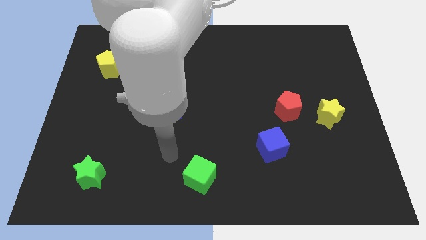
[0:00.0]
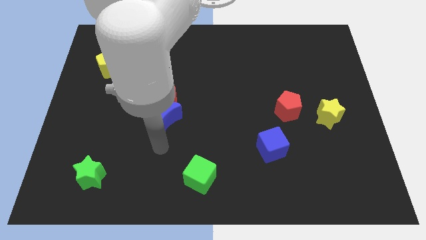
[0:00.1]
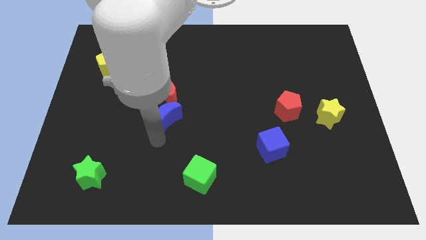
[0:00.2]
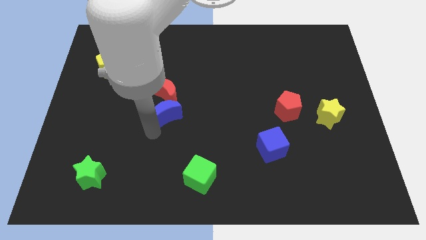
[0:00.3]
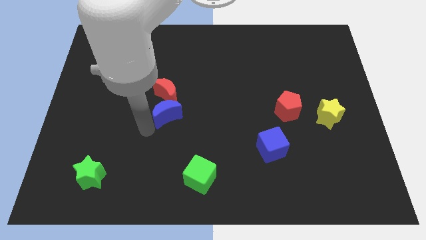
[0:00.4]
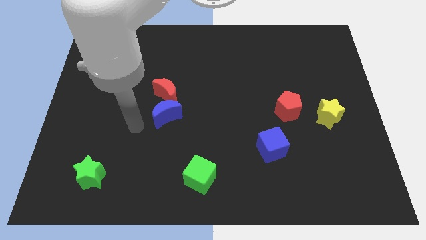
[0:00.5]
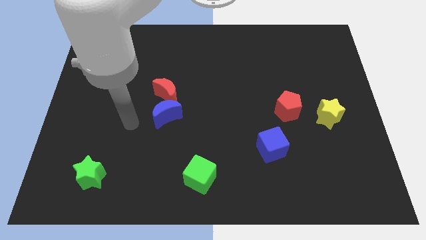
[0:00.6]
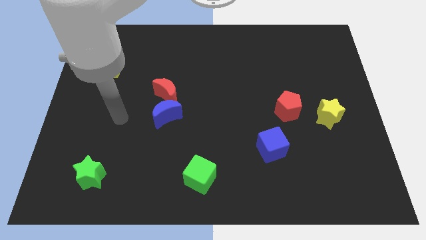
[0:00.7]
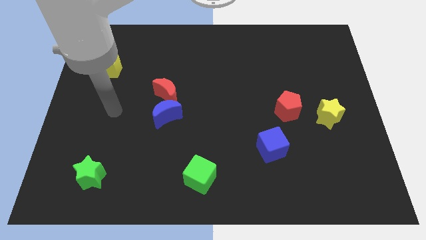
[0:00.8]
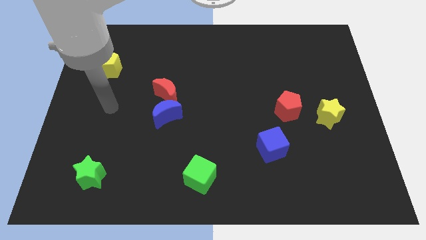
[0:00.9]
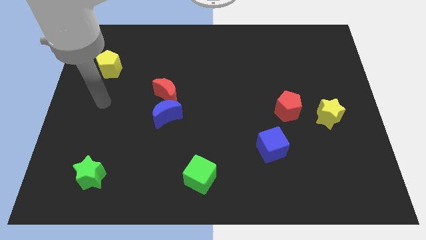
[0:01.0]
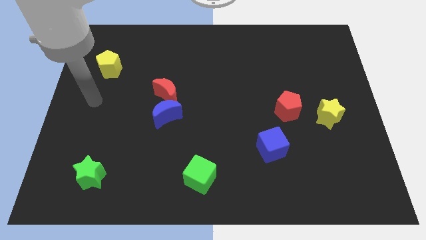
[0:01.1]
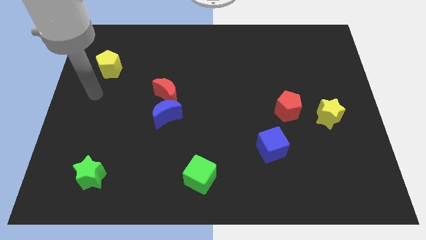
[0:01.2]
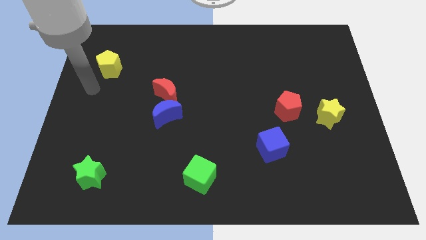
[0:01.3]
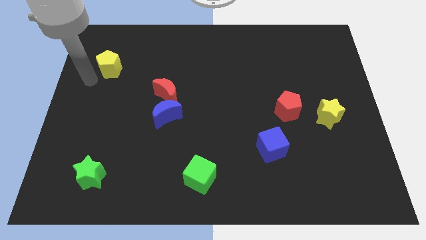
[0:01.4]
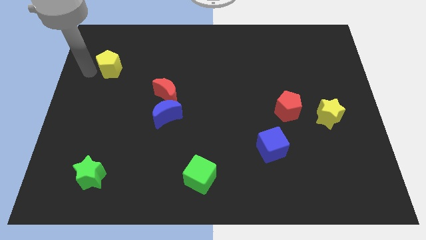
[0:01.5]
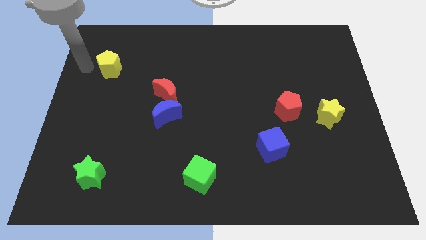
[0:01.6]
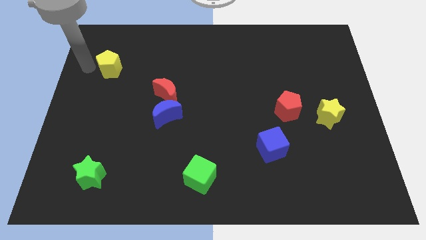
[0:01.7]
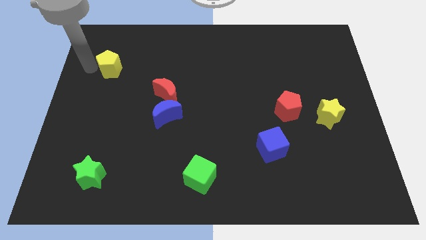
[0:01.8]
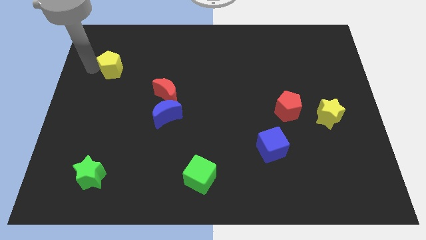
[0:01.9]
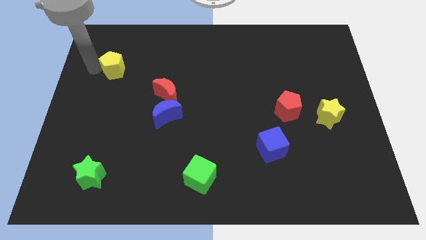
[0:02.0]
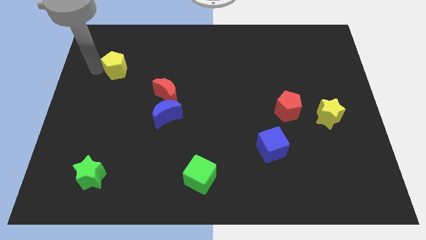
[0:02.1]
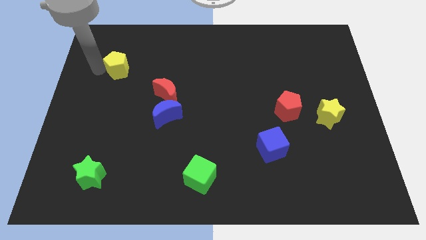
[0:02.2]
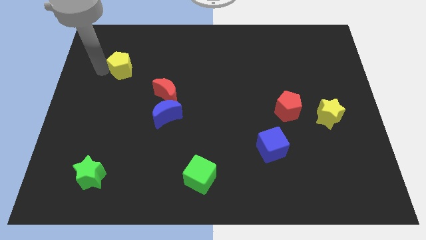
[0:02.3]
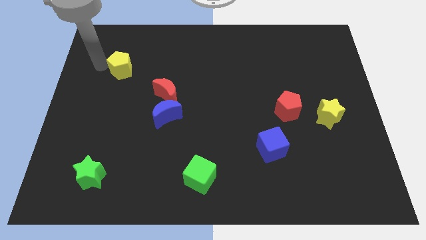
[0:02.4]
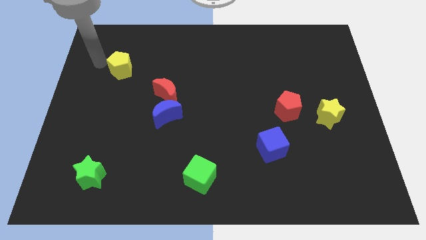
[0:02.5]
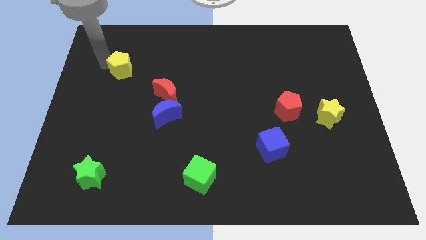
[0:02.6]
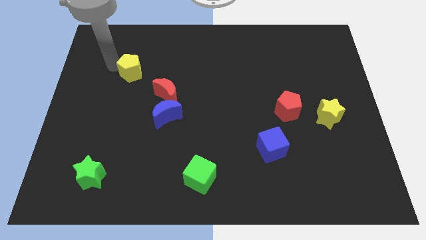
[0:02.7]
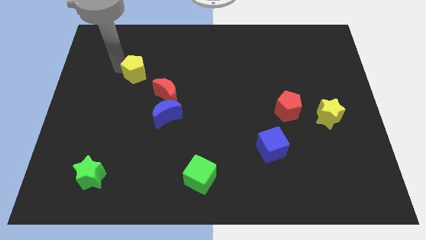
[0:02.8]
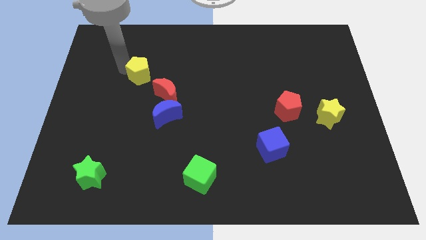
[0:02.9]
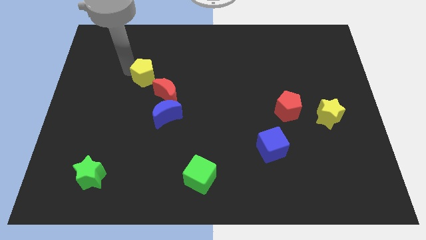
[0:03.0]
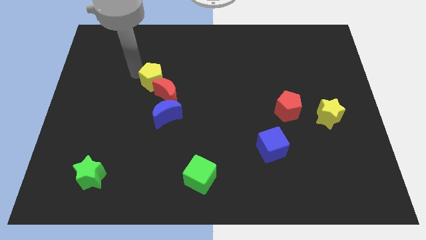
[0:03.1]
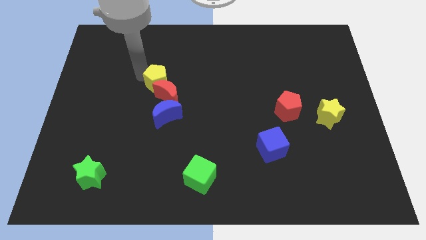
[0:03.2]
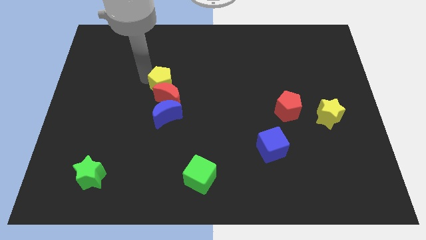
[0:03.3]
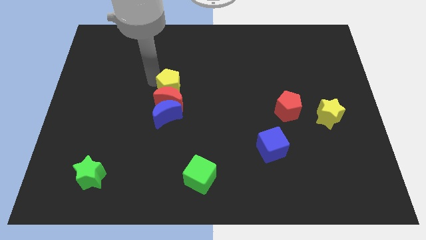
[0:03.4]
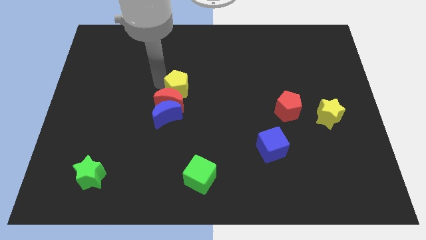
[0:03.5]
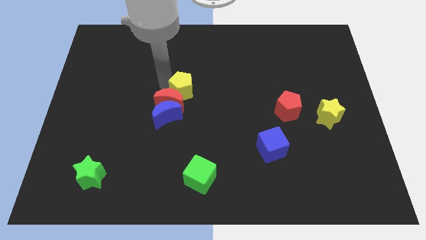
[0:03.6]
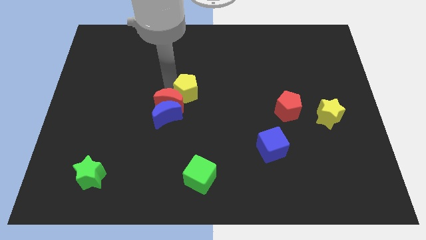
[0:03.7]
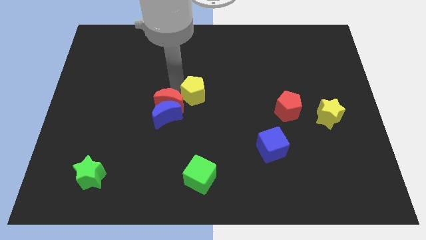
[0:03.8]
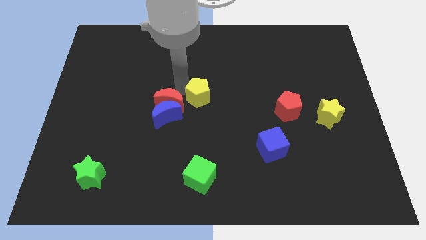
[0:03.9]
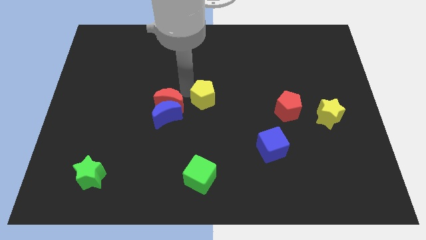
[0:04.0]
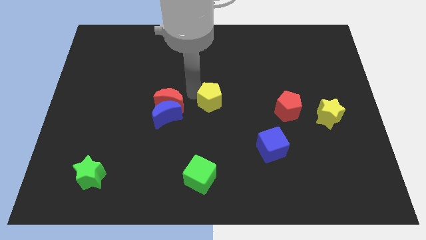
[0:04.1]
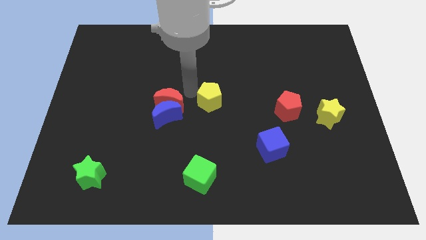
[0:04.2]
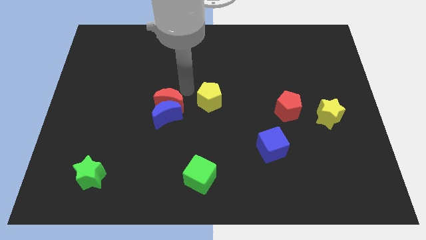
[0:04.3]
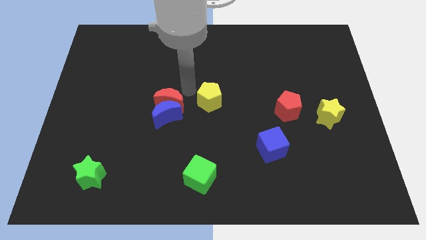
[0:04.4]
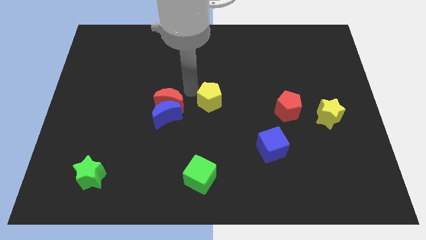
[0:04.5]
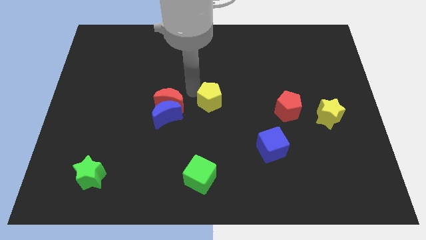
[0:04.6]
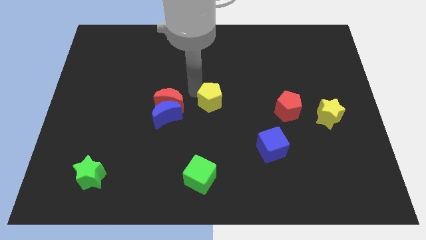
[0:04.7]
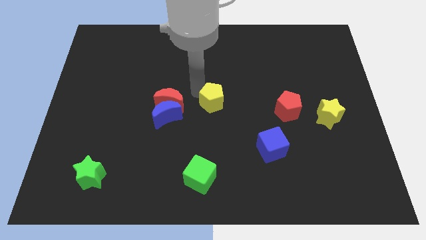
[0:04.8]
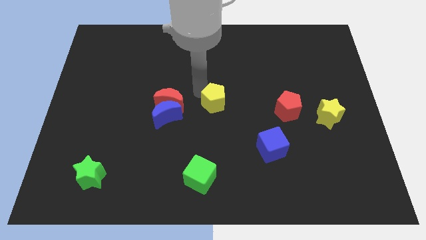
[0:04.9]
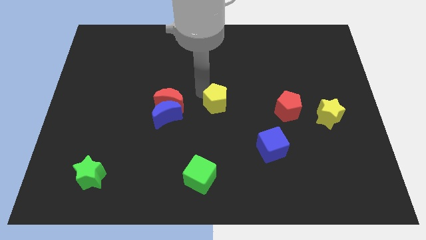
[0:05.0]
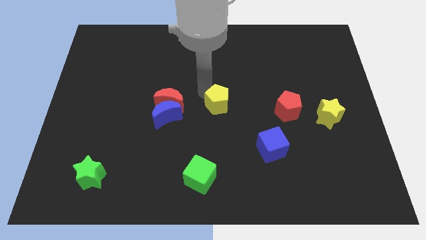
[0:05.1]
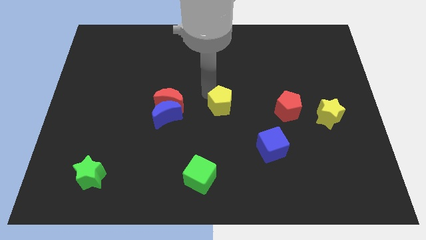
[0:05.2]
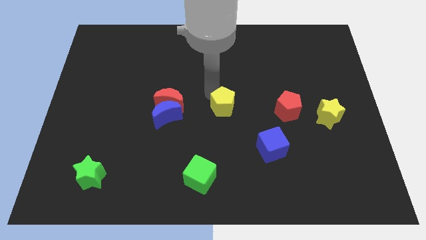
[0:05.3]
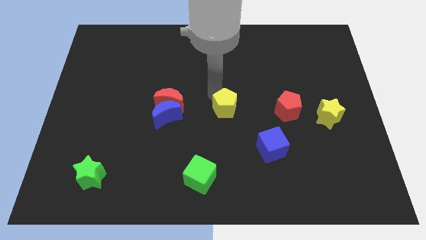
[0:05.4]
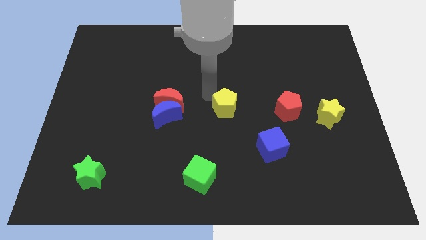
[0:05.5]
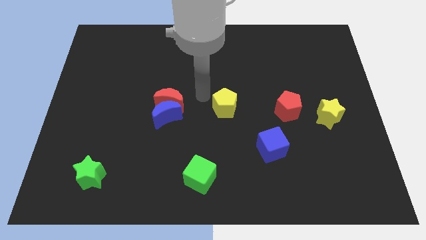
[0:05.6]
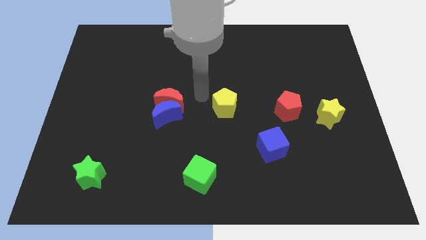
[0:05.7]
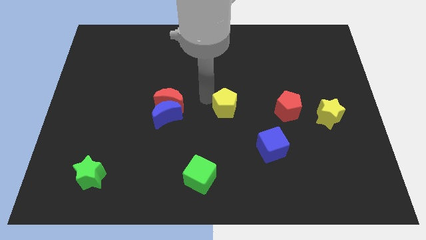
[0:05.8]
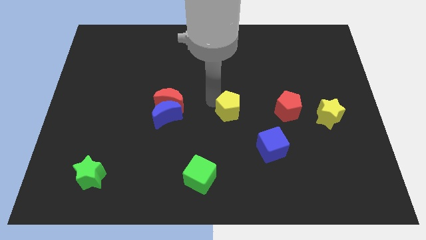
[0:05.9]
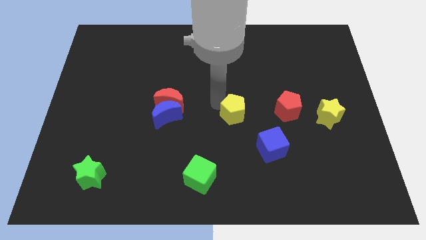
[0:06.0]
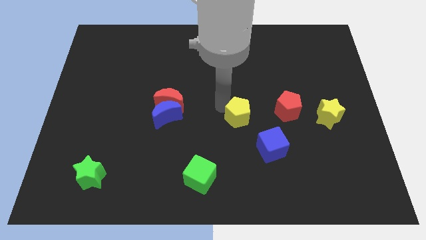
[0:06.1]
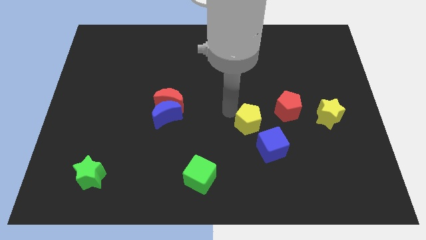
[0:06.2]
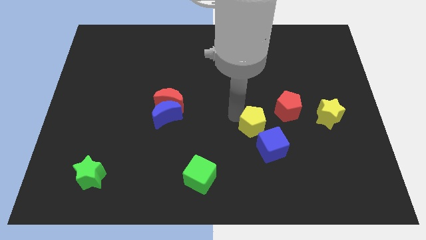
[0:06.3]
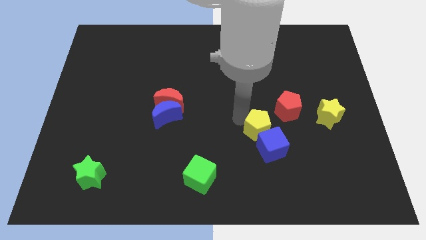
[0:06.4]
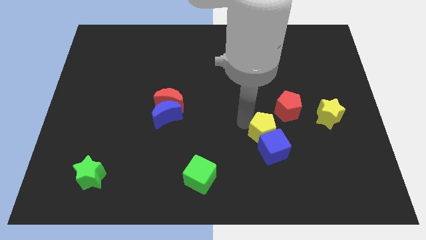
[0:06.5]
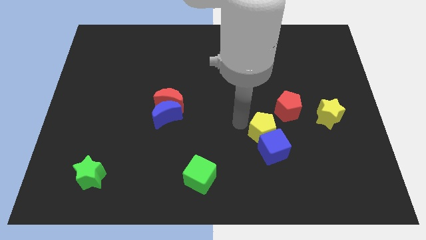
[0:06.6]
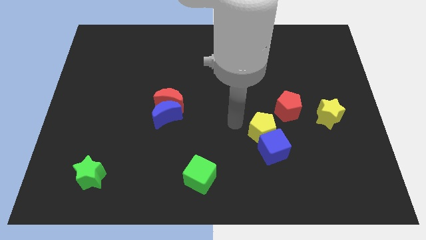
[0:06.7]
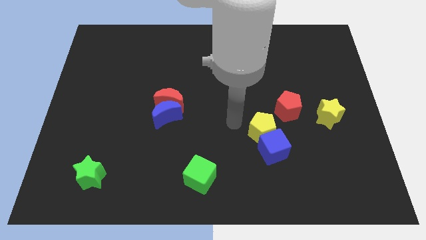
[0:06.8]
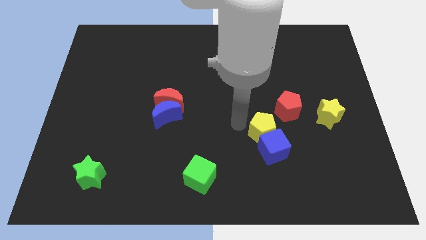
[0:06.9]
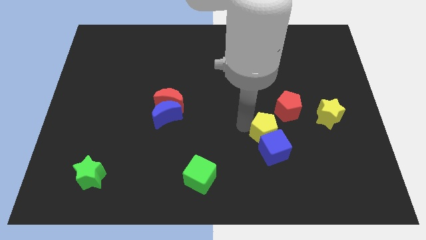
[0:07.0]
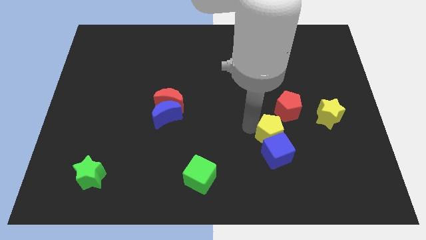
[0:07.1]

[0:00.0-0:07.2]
put the yellow pentagon to the bottom side of the red pentagon

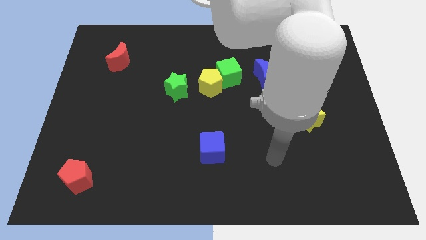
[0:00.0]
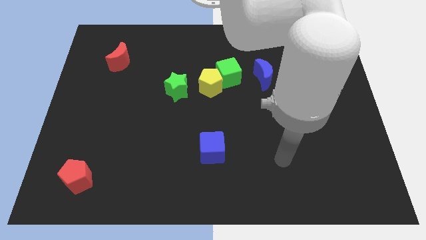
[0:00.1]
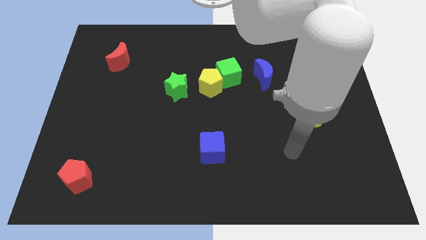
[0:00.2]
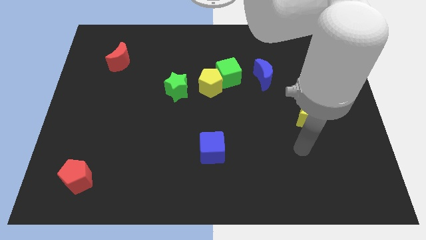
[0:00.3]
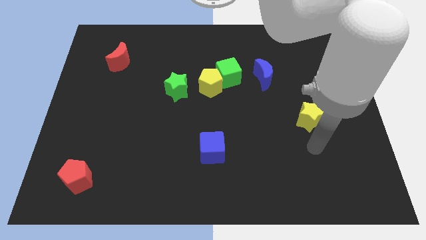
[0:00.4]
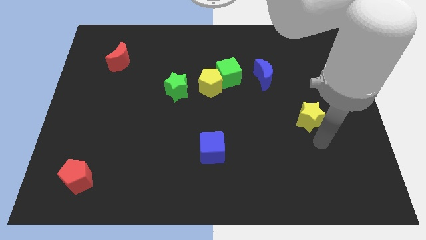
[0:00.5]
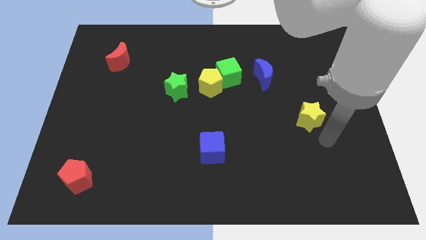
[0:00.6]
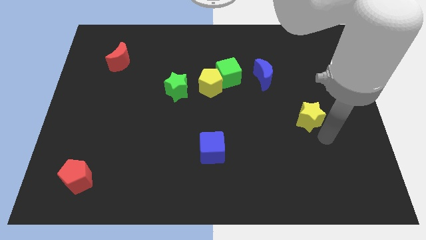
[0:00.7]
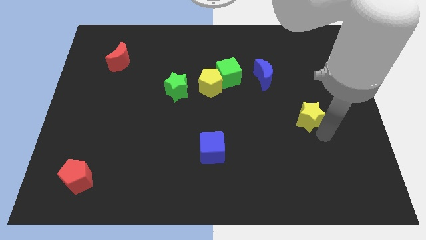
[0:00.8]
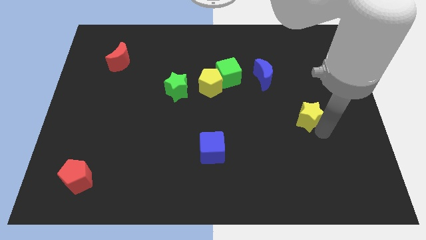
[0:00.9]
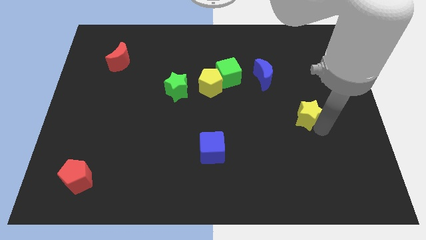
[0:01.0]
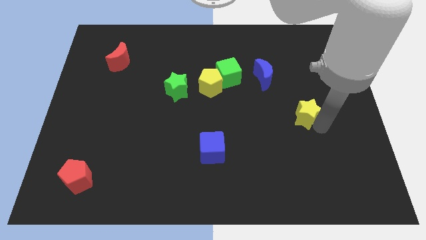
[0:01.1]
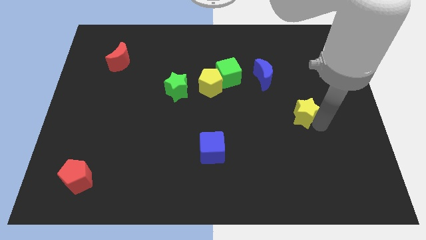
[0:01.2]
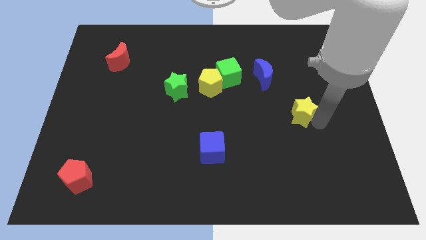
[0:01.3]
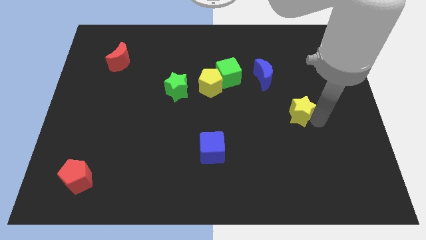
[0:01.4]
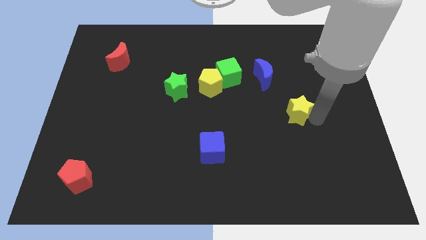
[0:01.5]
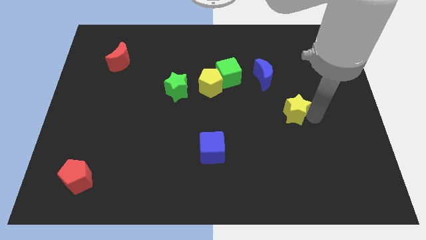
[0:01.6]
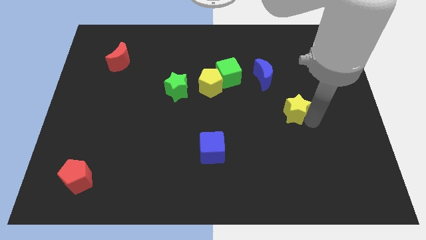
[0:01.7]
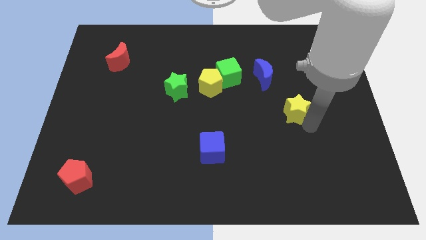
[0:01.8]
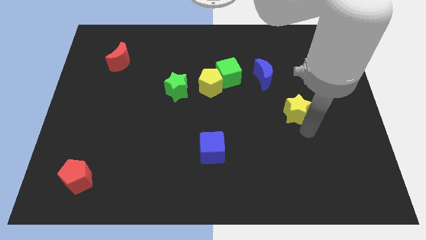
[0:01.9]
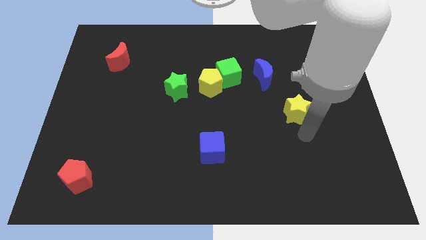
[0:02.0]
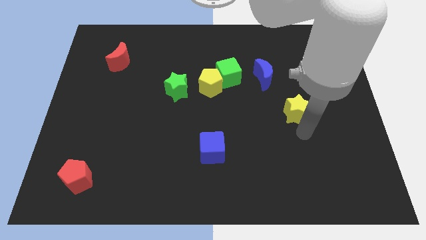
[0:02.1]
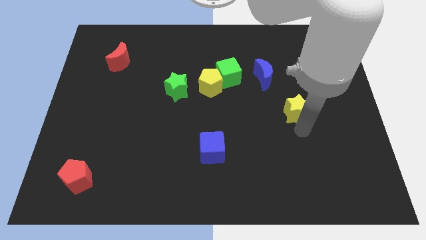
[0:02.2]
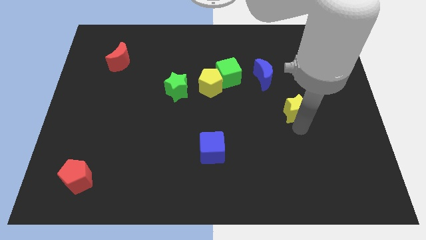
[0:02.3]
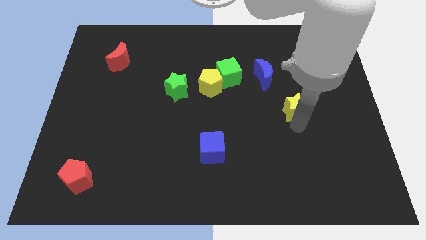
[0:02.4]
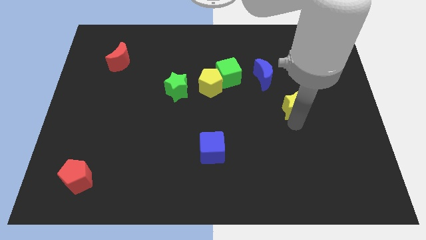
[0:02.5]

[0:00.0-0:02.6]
put the yellow star diagonally down and to the right of the blue moon
